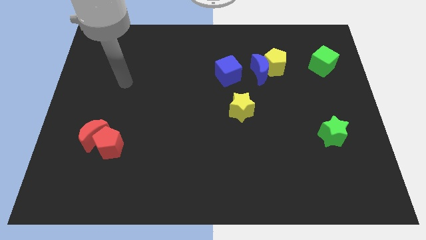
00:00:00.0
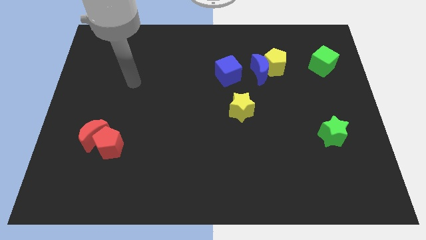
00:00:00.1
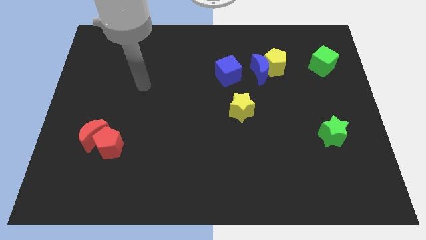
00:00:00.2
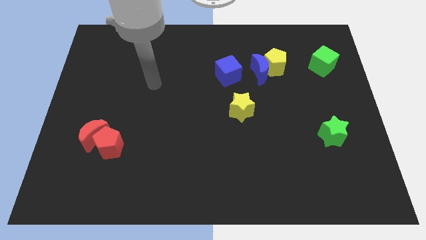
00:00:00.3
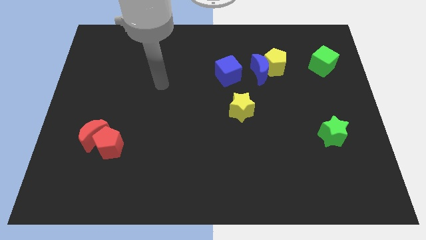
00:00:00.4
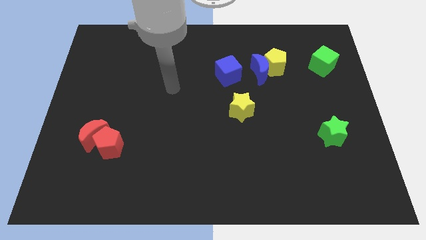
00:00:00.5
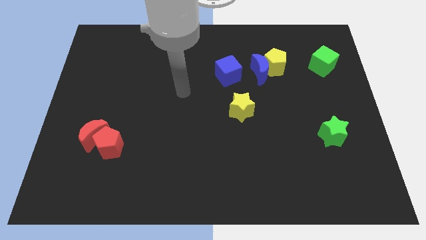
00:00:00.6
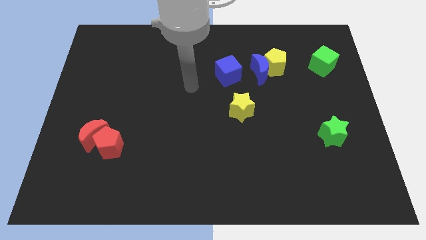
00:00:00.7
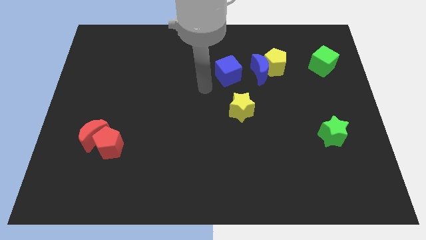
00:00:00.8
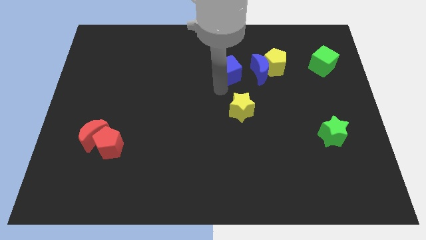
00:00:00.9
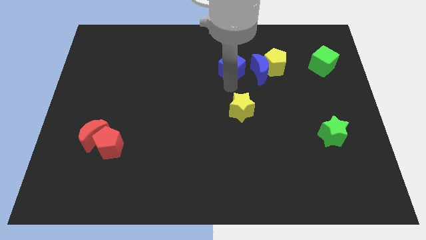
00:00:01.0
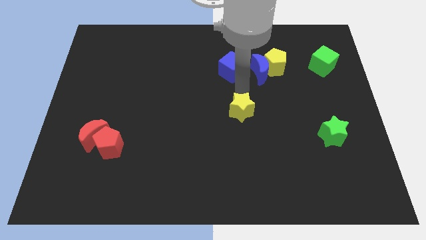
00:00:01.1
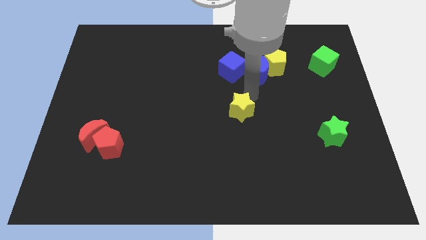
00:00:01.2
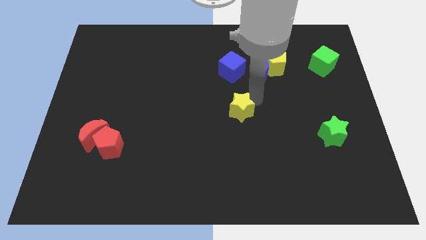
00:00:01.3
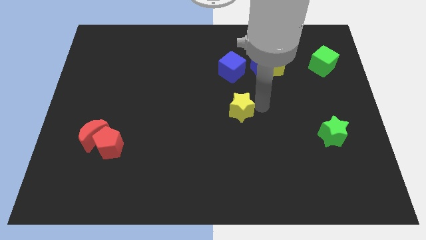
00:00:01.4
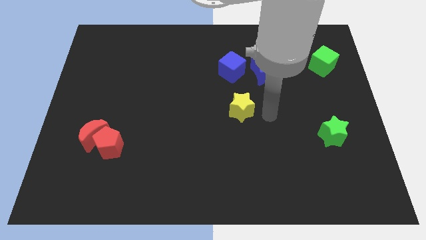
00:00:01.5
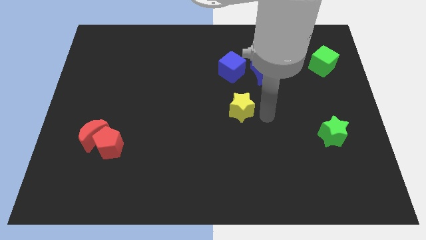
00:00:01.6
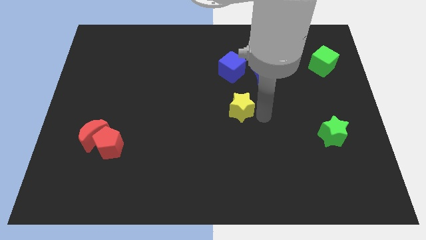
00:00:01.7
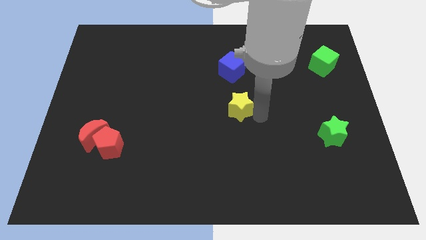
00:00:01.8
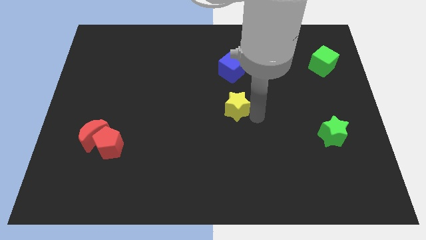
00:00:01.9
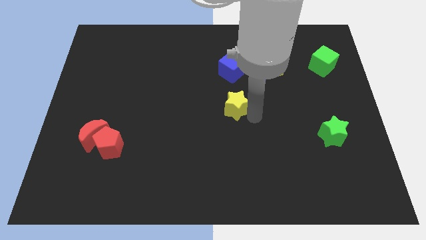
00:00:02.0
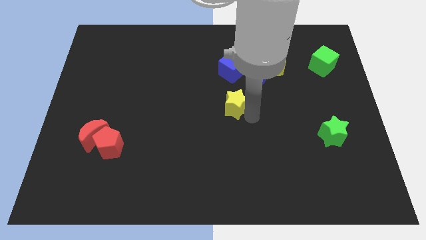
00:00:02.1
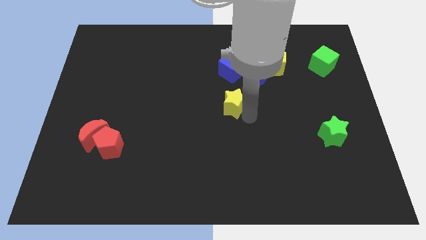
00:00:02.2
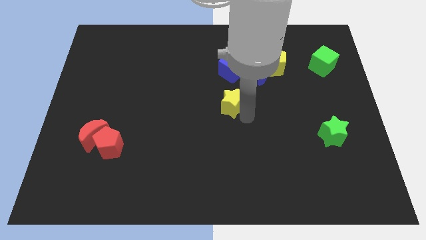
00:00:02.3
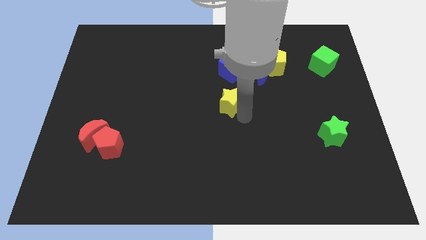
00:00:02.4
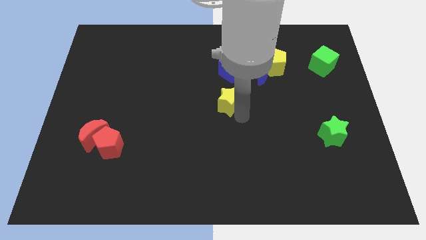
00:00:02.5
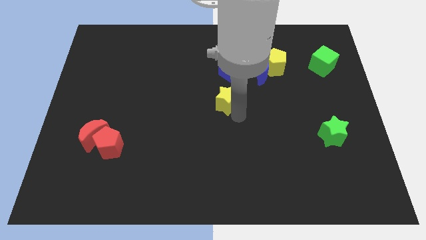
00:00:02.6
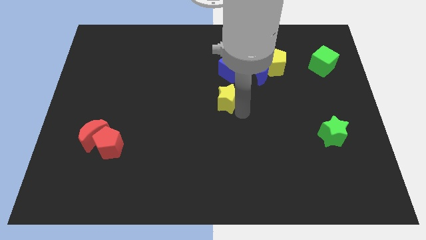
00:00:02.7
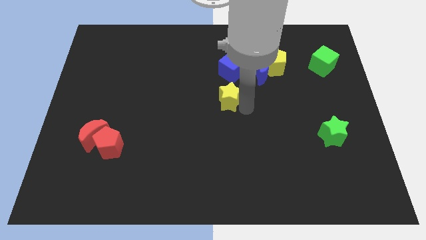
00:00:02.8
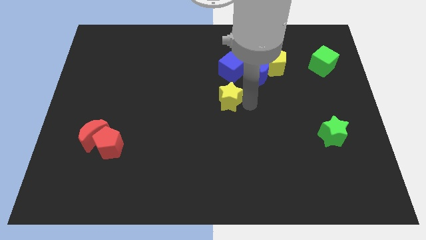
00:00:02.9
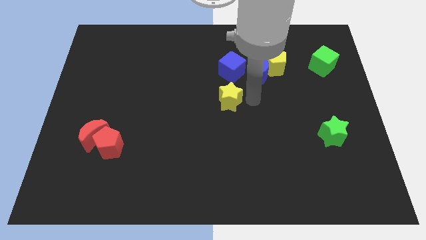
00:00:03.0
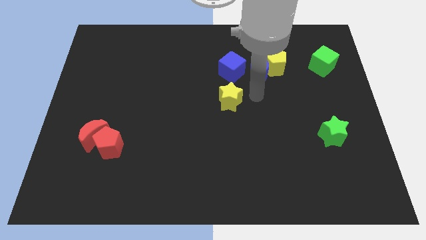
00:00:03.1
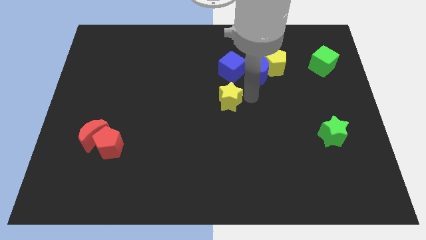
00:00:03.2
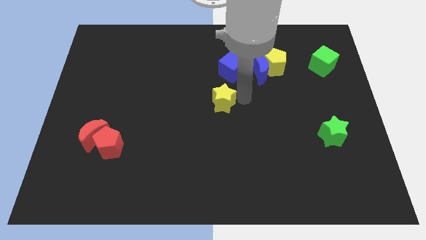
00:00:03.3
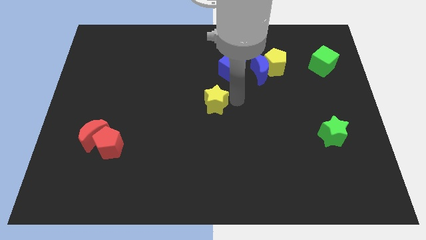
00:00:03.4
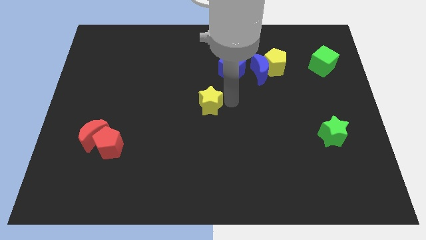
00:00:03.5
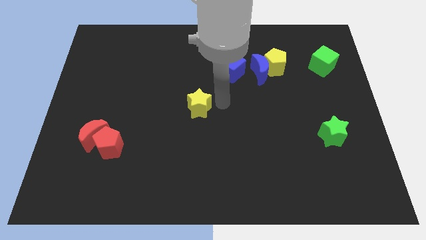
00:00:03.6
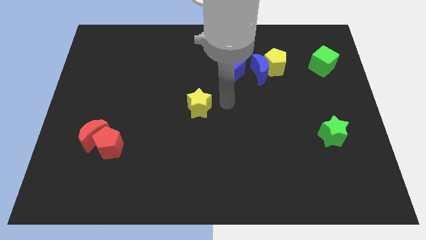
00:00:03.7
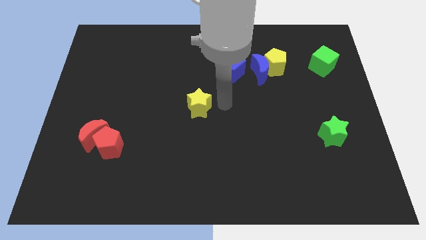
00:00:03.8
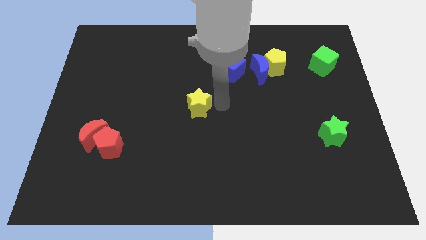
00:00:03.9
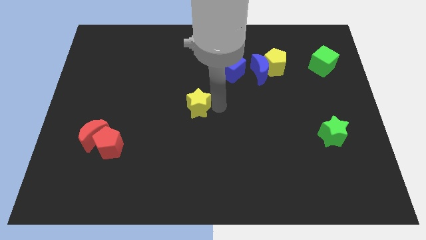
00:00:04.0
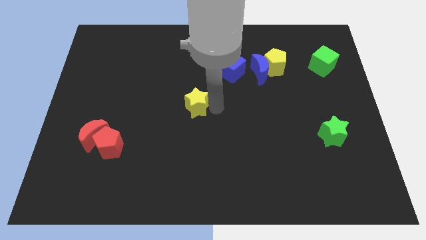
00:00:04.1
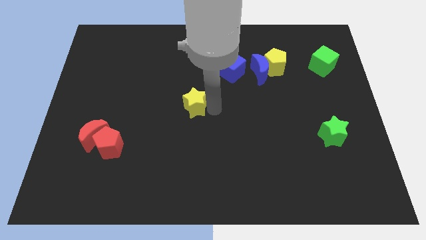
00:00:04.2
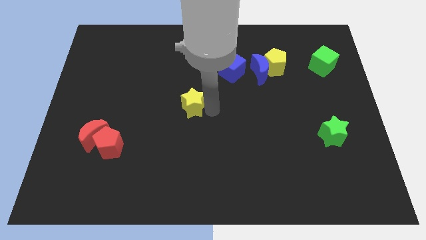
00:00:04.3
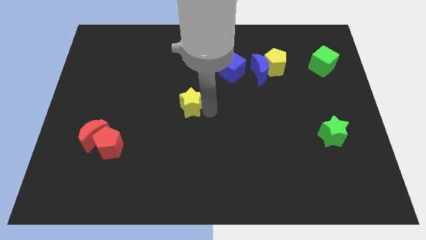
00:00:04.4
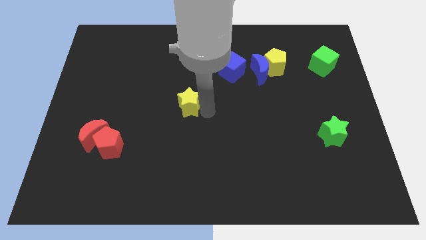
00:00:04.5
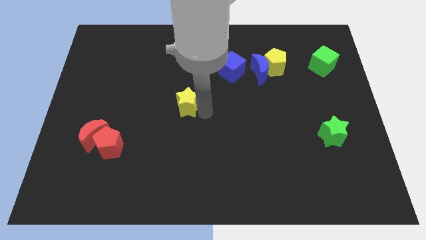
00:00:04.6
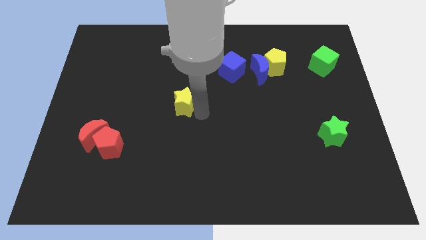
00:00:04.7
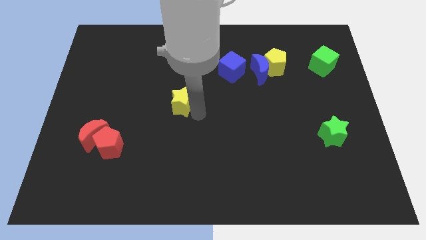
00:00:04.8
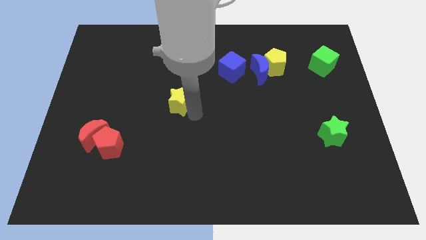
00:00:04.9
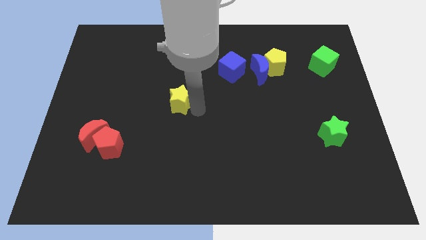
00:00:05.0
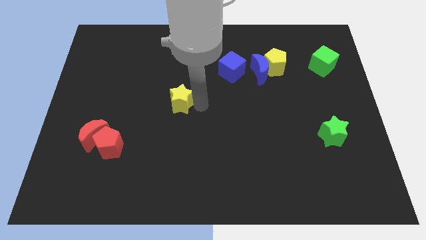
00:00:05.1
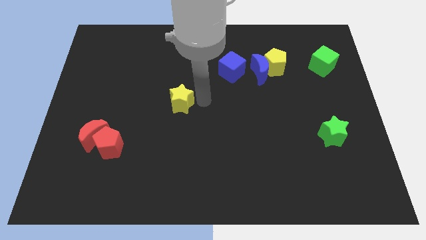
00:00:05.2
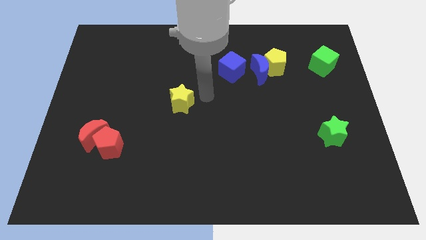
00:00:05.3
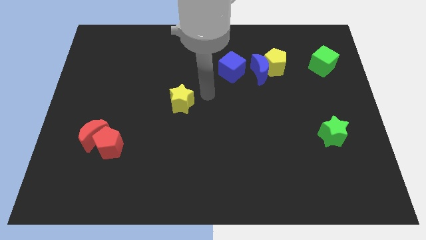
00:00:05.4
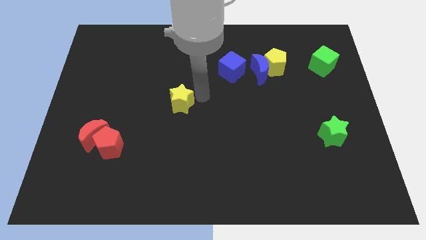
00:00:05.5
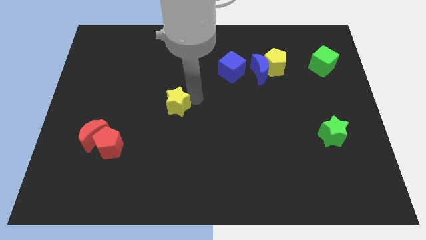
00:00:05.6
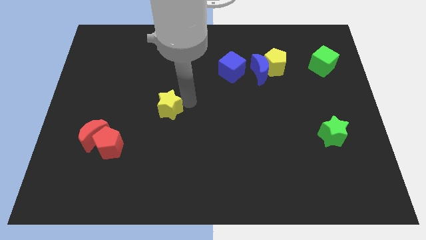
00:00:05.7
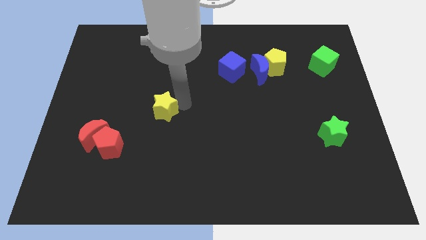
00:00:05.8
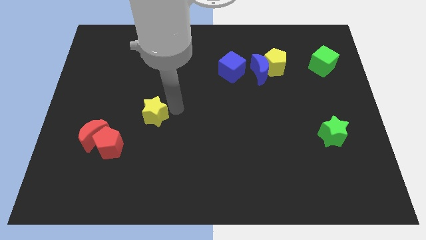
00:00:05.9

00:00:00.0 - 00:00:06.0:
move the yellow star to the left

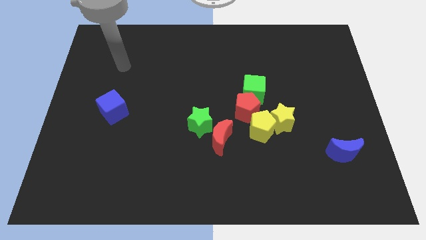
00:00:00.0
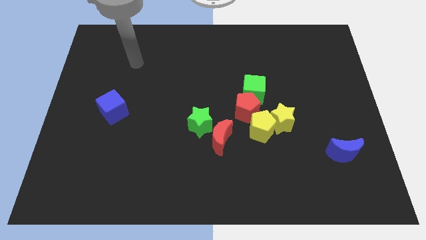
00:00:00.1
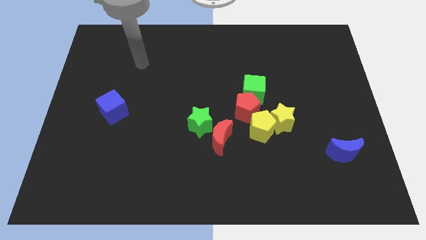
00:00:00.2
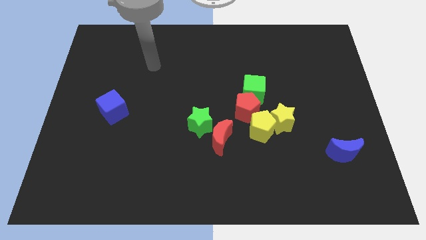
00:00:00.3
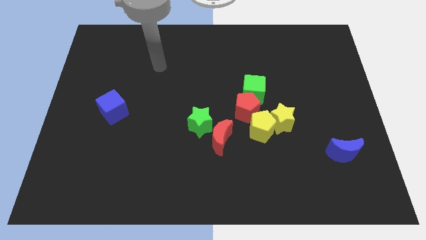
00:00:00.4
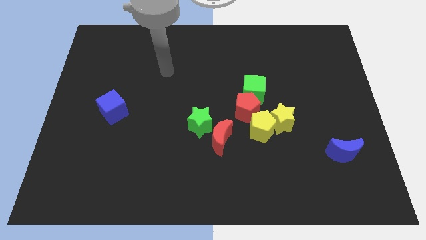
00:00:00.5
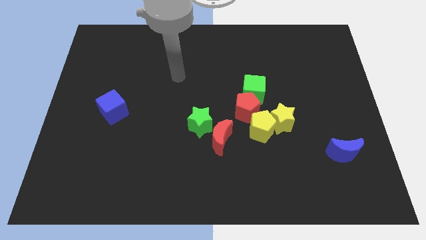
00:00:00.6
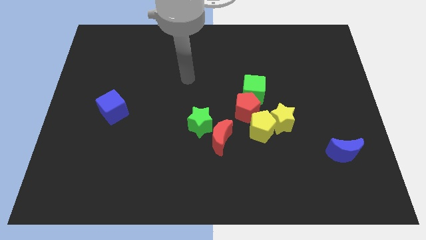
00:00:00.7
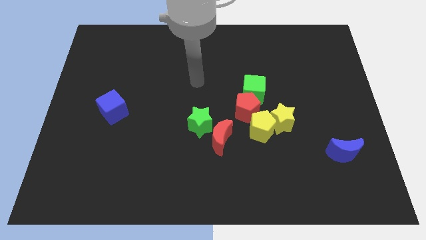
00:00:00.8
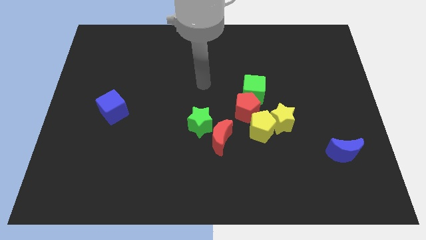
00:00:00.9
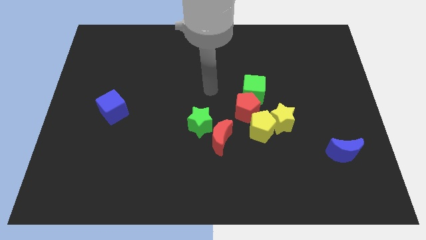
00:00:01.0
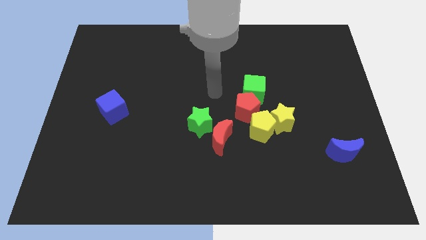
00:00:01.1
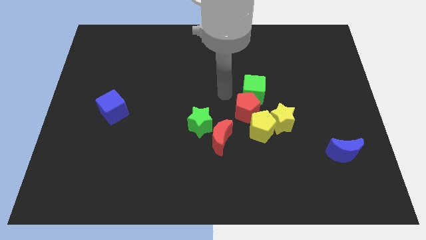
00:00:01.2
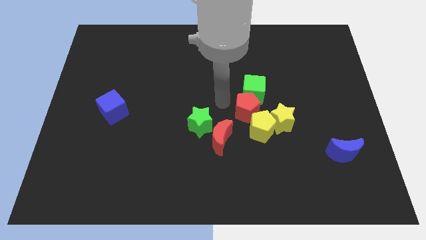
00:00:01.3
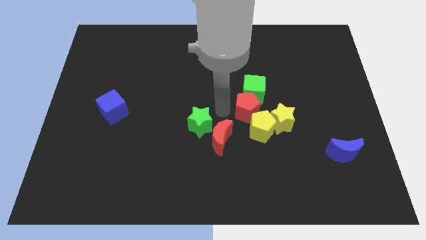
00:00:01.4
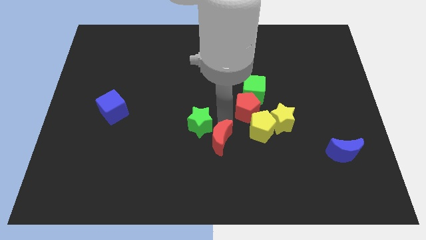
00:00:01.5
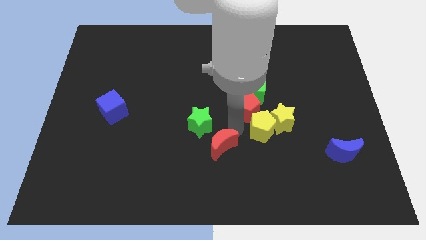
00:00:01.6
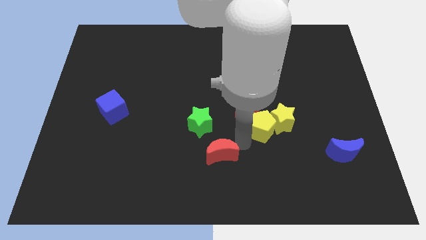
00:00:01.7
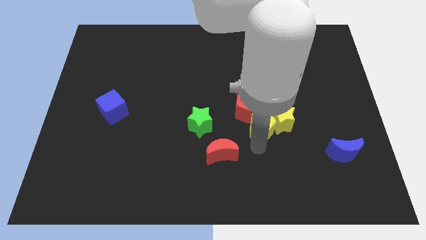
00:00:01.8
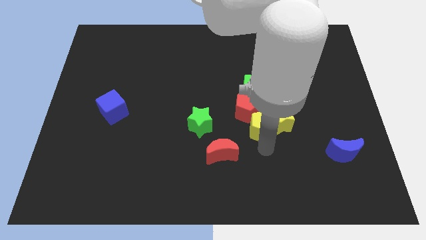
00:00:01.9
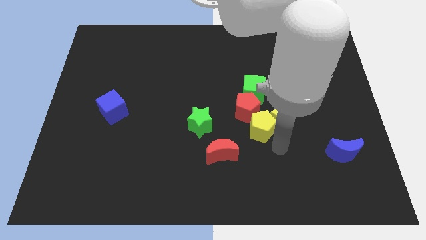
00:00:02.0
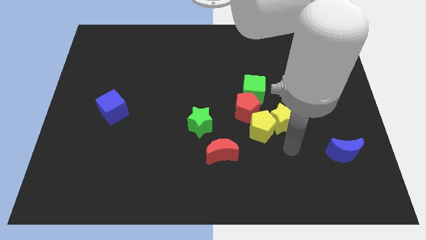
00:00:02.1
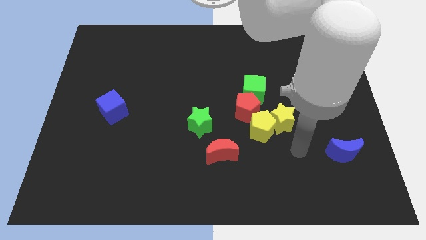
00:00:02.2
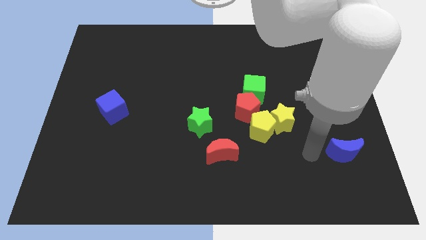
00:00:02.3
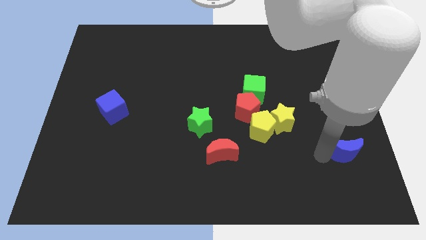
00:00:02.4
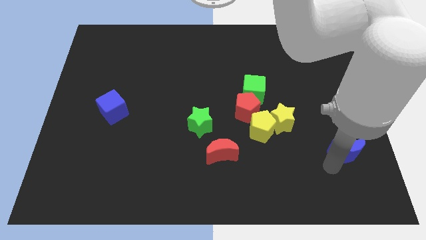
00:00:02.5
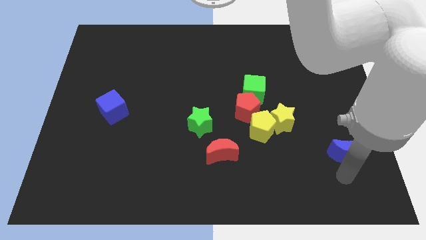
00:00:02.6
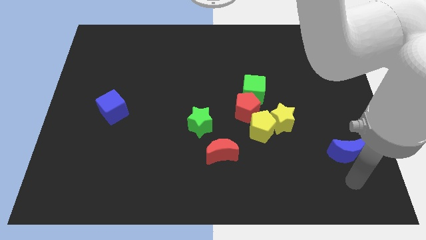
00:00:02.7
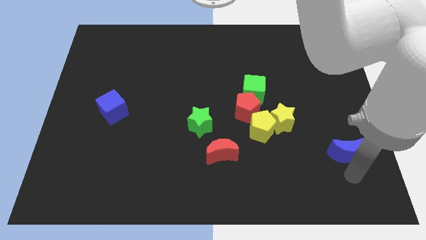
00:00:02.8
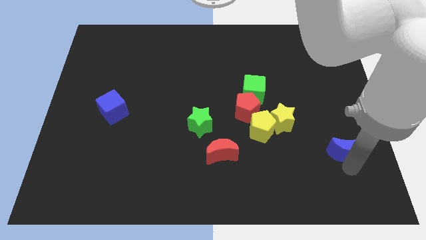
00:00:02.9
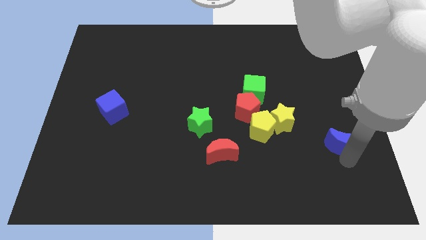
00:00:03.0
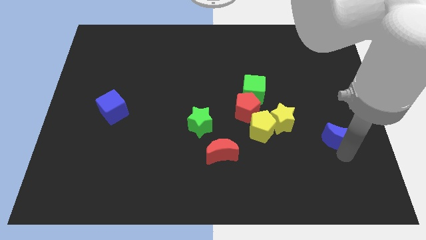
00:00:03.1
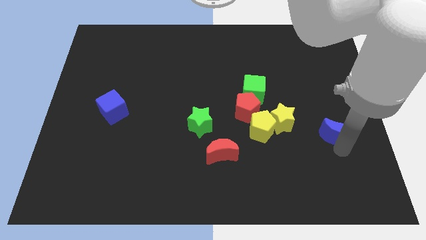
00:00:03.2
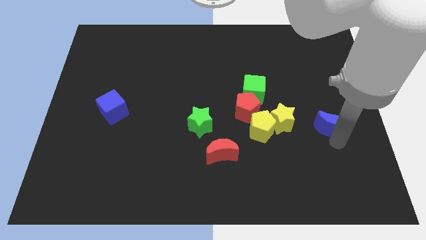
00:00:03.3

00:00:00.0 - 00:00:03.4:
move the blue moon upwards somewhat
